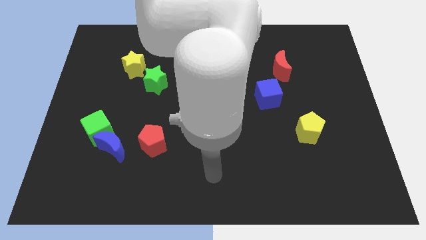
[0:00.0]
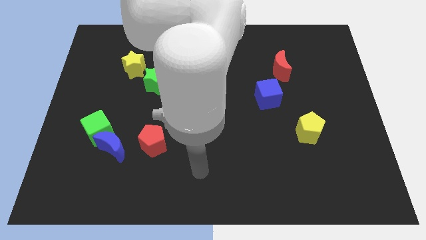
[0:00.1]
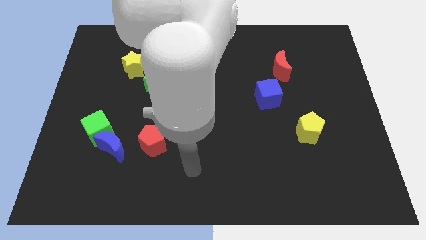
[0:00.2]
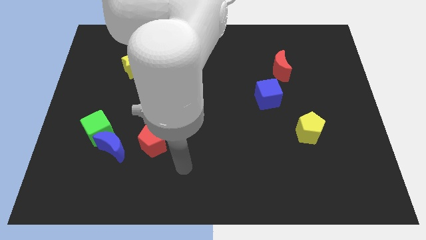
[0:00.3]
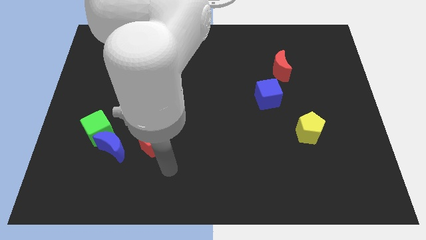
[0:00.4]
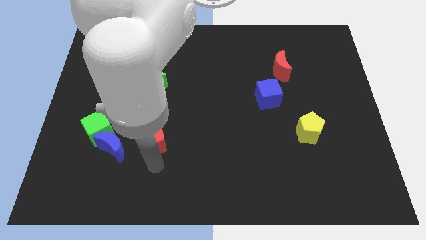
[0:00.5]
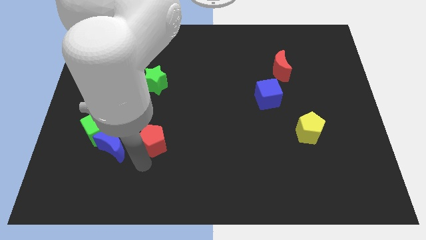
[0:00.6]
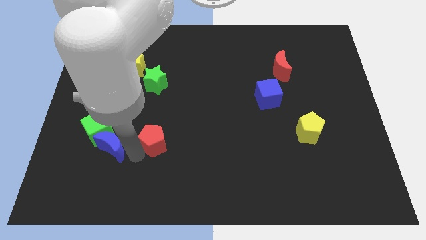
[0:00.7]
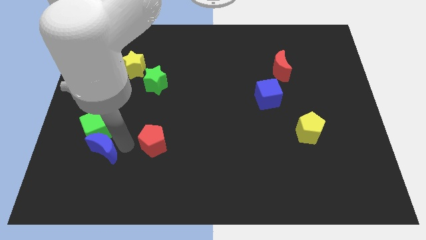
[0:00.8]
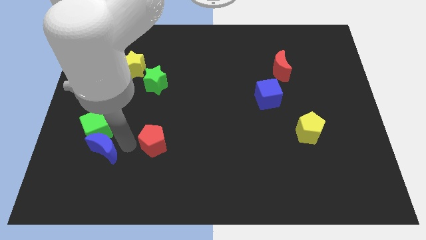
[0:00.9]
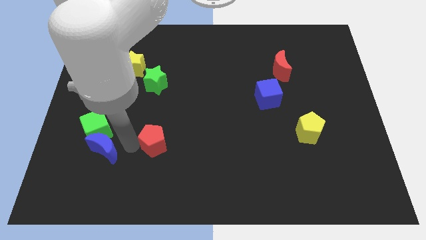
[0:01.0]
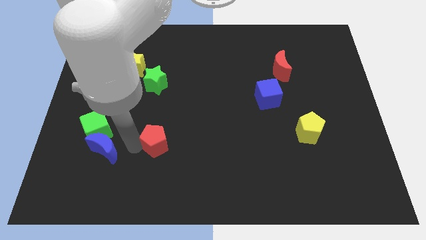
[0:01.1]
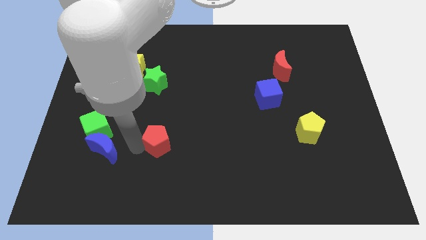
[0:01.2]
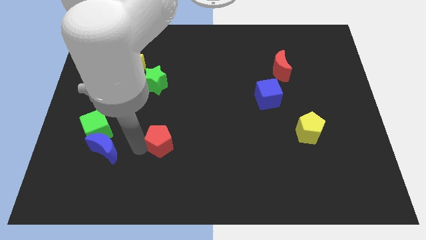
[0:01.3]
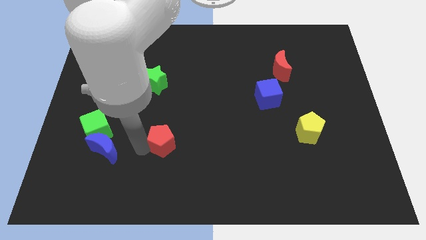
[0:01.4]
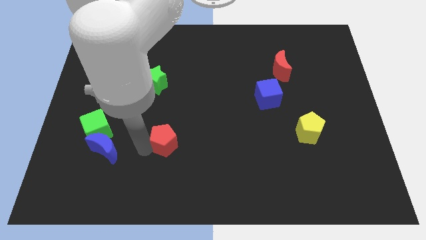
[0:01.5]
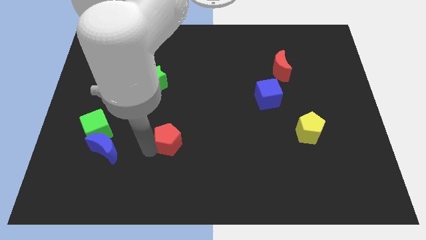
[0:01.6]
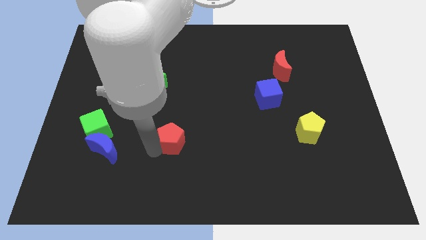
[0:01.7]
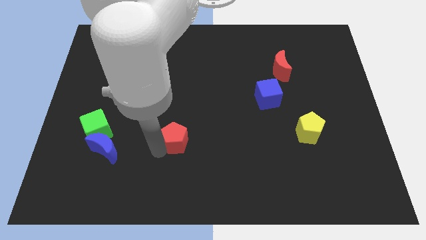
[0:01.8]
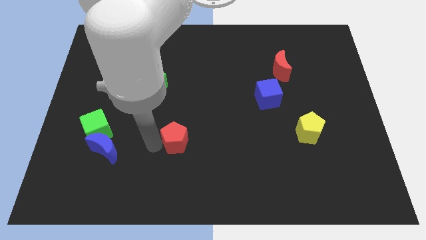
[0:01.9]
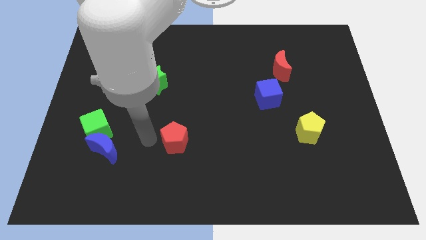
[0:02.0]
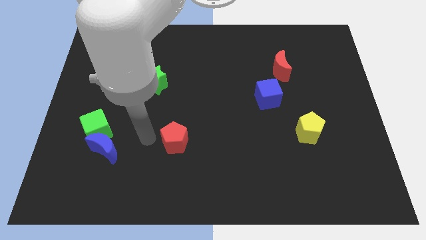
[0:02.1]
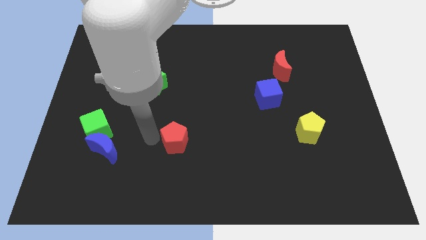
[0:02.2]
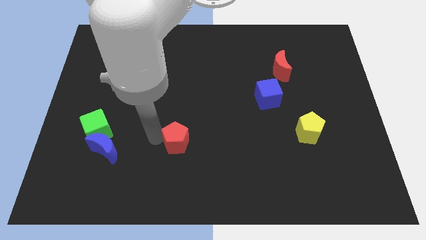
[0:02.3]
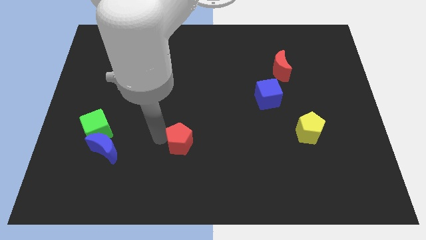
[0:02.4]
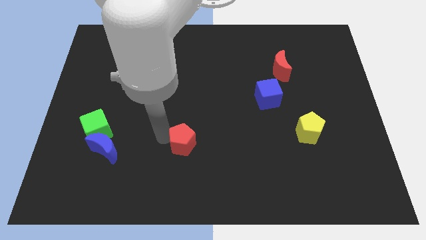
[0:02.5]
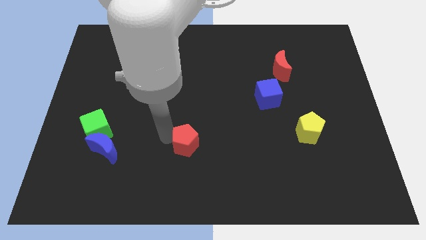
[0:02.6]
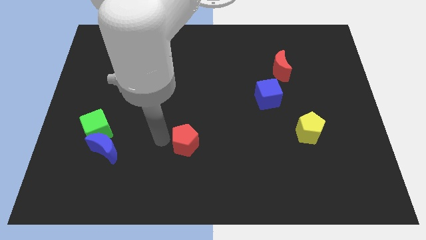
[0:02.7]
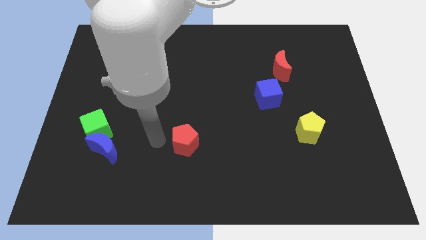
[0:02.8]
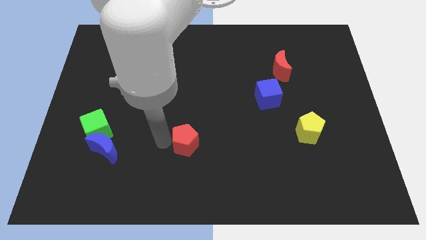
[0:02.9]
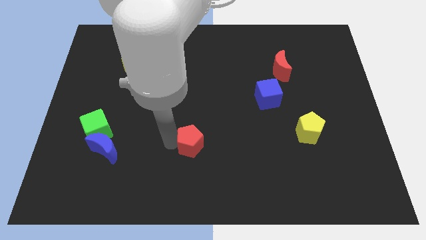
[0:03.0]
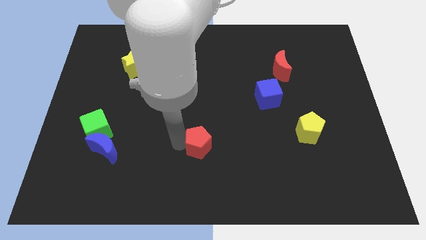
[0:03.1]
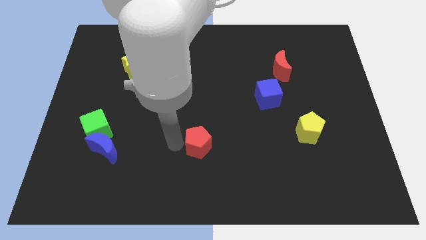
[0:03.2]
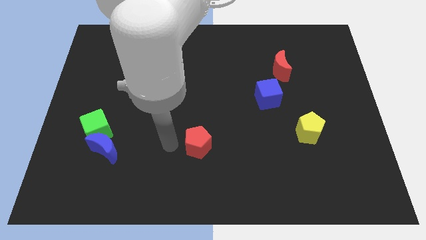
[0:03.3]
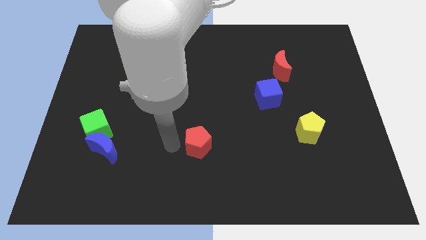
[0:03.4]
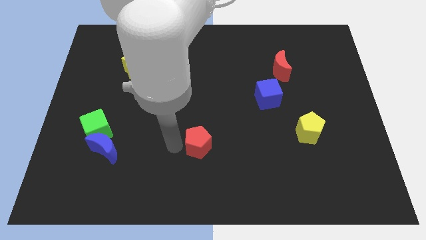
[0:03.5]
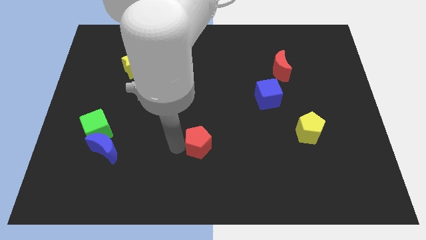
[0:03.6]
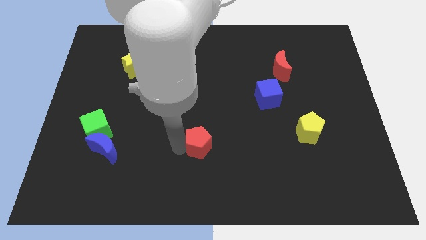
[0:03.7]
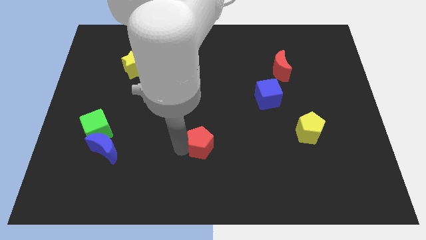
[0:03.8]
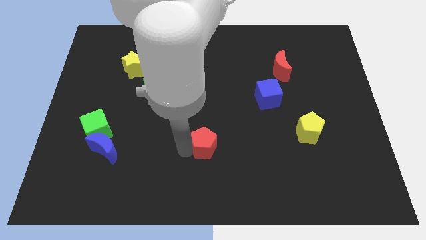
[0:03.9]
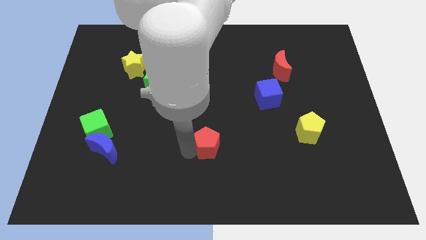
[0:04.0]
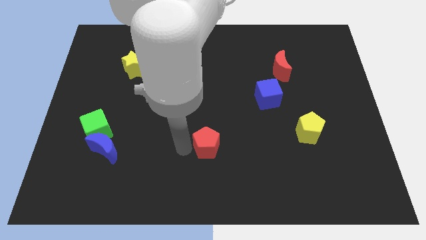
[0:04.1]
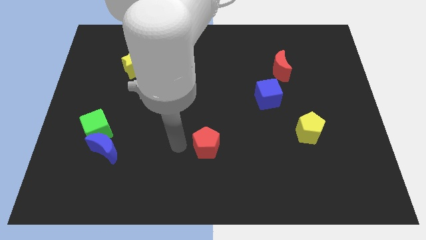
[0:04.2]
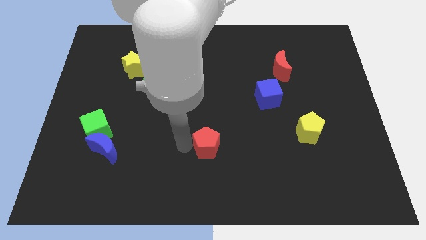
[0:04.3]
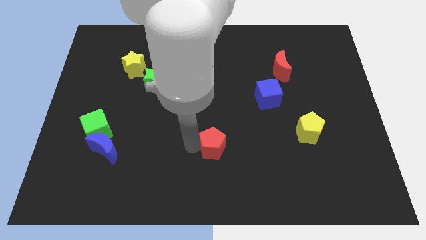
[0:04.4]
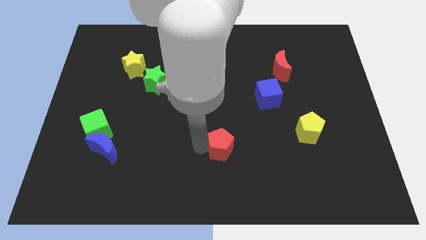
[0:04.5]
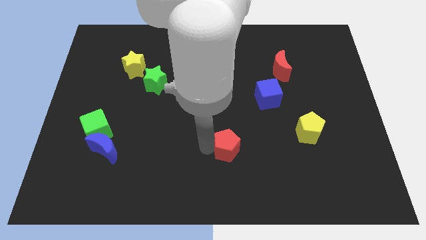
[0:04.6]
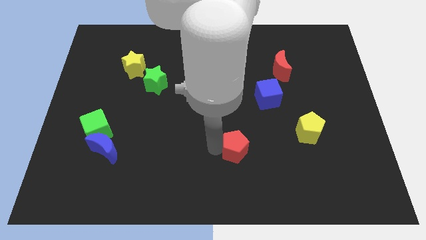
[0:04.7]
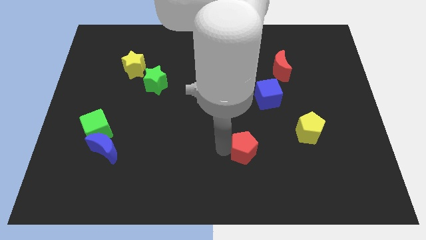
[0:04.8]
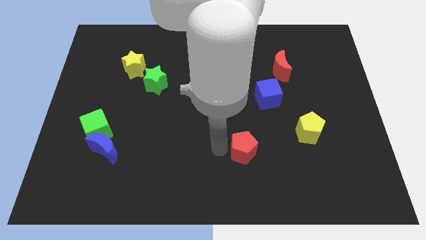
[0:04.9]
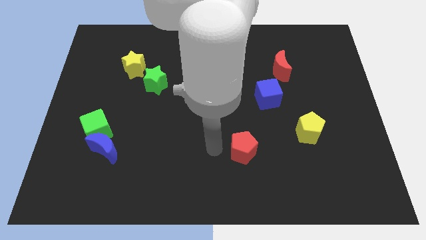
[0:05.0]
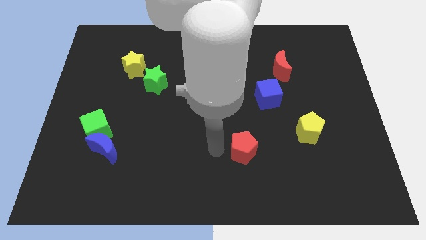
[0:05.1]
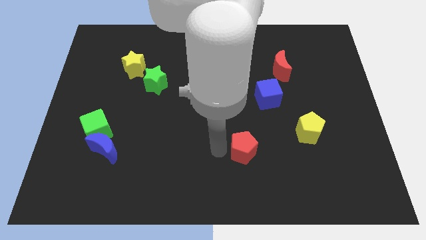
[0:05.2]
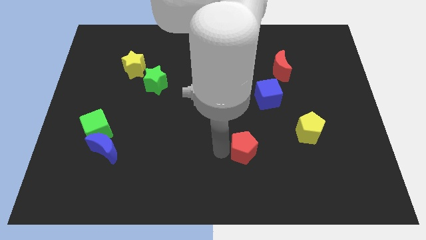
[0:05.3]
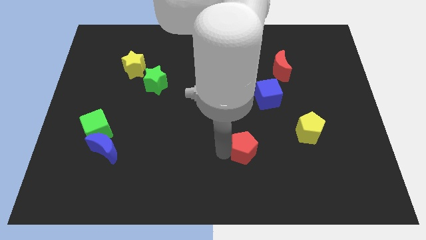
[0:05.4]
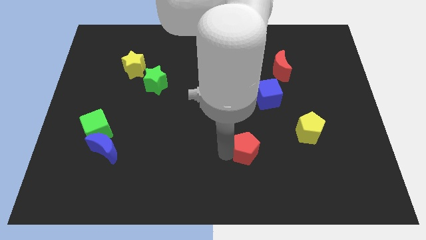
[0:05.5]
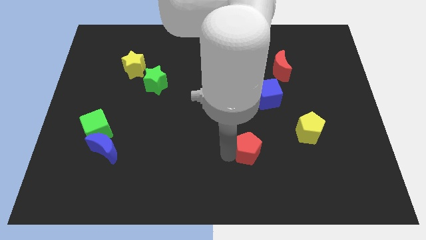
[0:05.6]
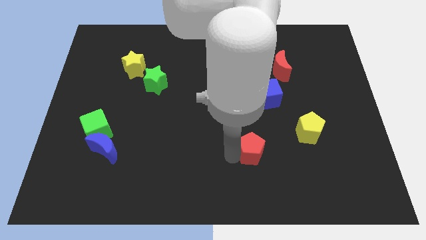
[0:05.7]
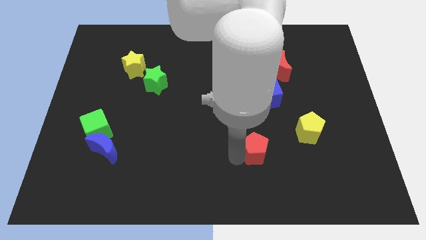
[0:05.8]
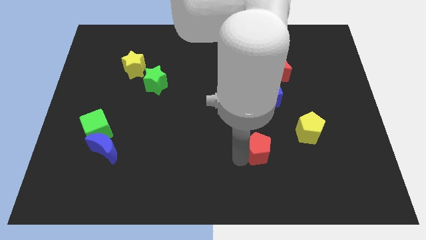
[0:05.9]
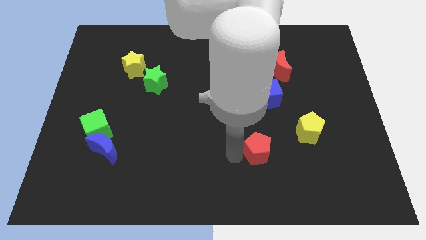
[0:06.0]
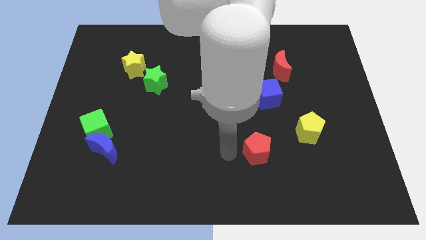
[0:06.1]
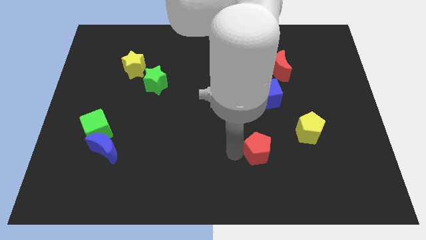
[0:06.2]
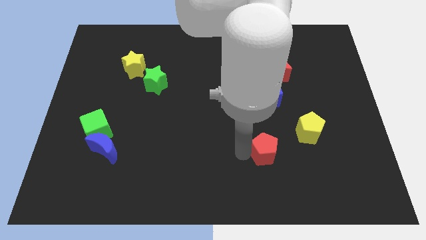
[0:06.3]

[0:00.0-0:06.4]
move the red pentagon diagonally down and to the left of the yellow pentagon

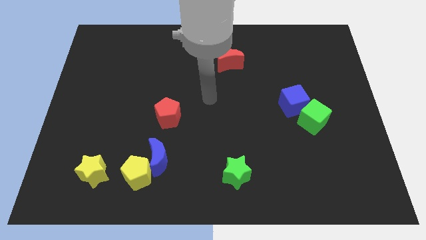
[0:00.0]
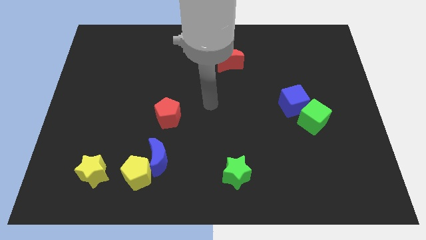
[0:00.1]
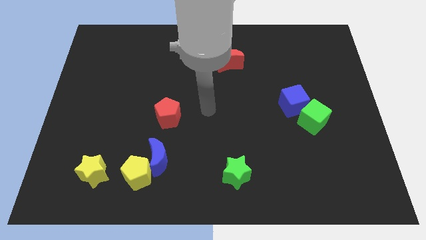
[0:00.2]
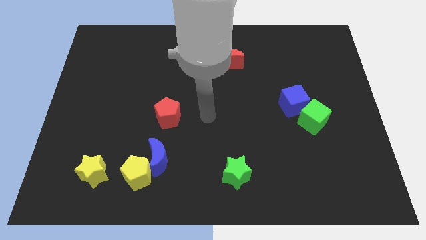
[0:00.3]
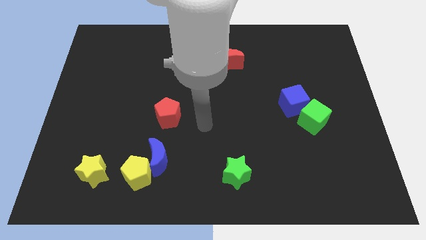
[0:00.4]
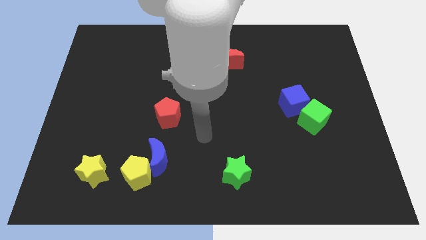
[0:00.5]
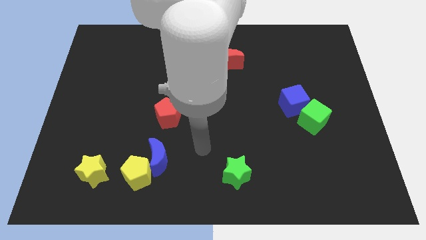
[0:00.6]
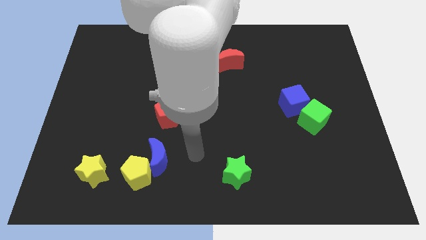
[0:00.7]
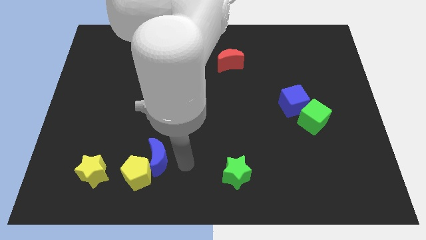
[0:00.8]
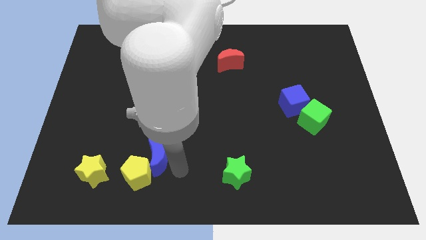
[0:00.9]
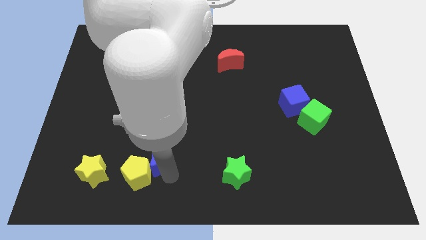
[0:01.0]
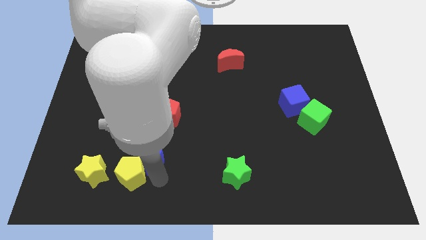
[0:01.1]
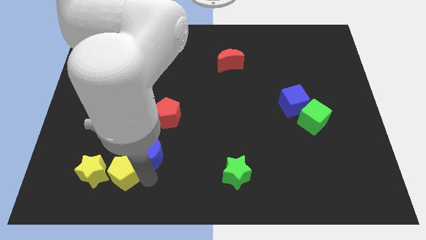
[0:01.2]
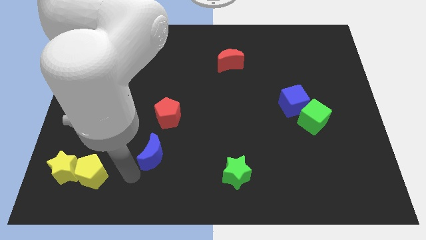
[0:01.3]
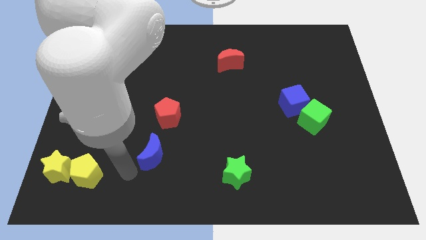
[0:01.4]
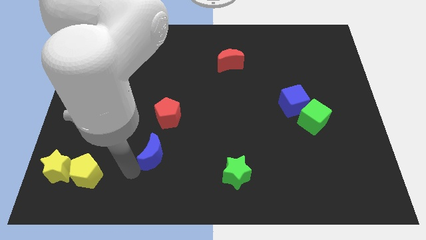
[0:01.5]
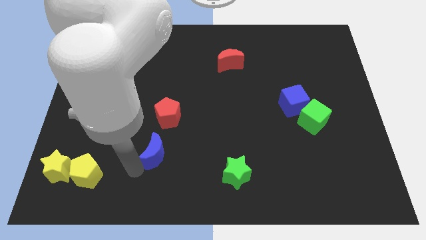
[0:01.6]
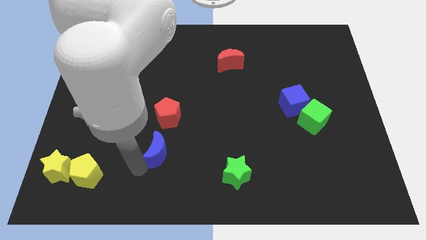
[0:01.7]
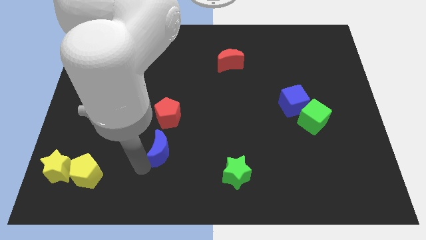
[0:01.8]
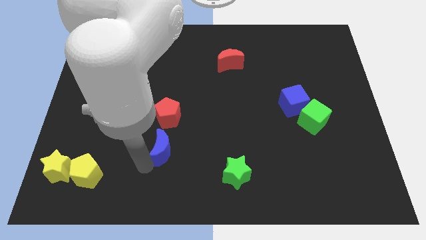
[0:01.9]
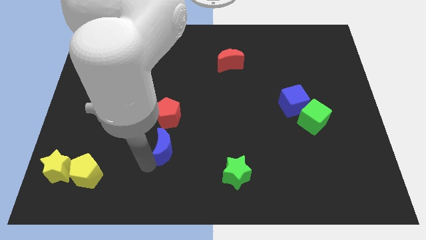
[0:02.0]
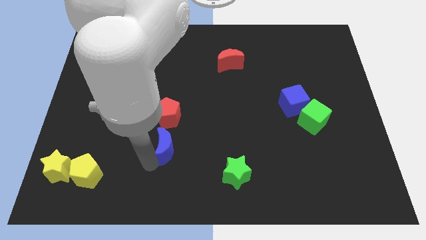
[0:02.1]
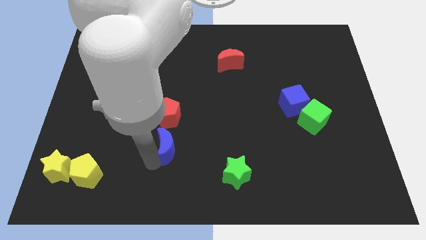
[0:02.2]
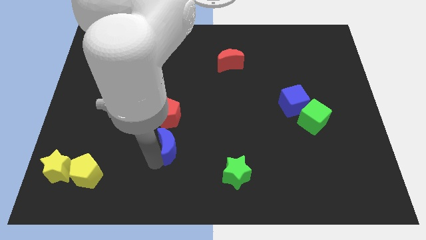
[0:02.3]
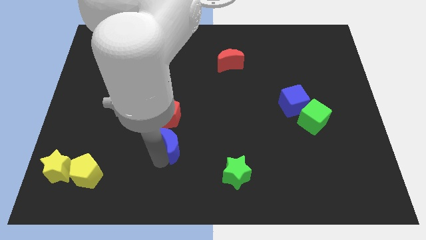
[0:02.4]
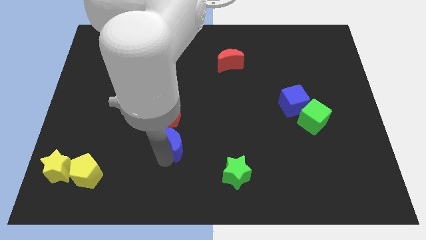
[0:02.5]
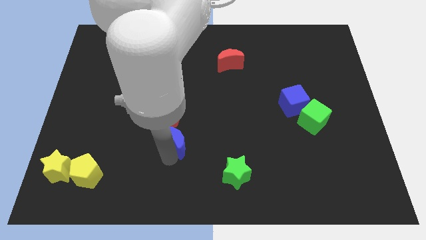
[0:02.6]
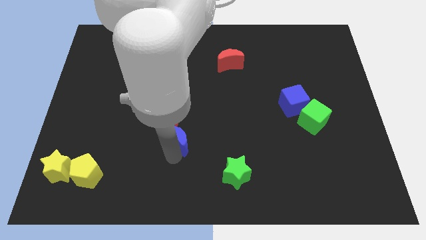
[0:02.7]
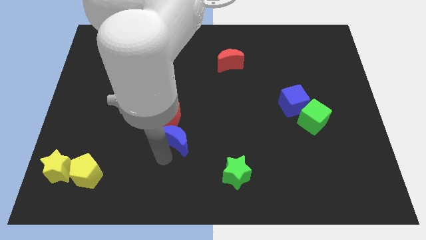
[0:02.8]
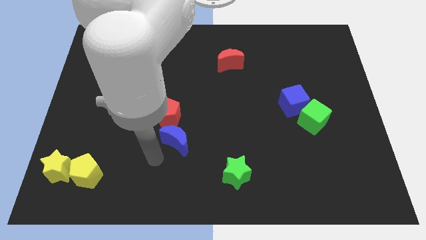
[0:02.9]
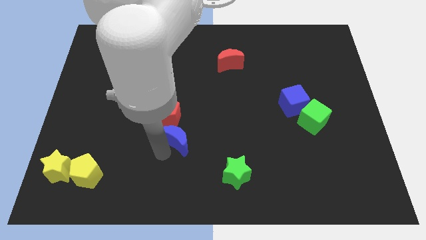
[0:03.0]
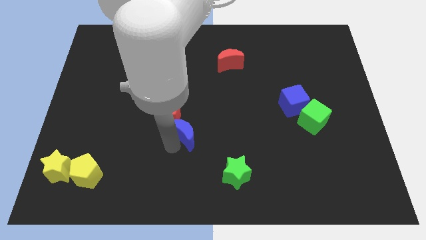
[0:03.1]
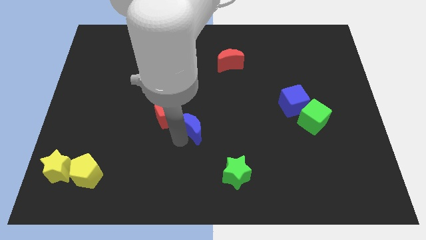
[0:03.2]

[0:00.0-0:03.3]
move the blue moon just right of the red pentagon
